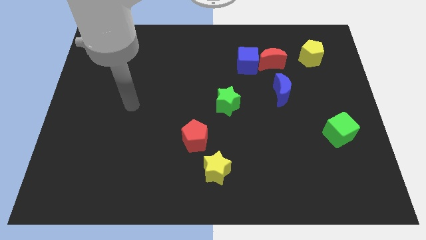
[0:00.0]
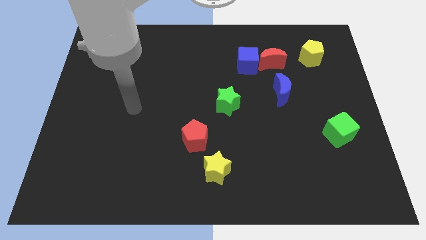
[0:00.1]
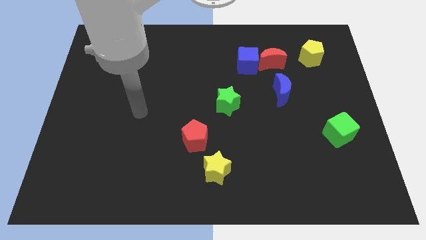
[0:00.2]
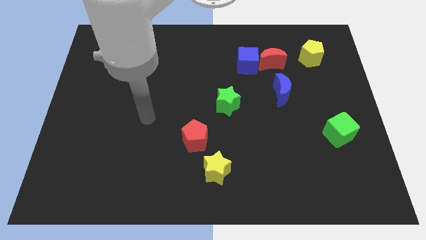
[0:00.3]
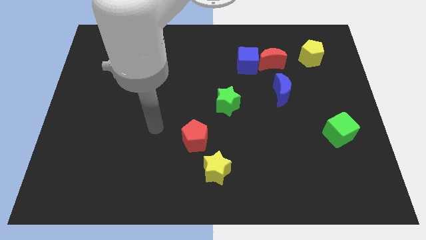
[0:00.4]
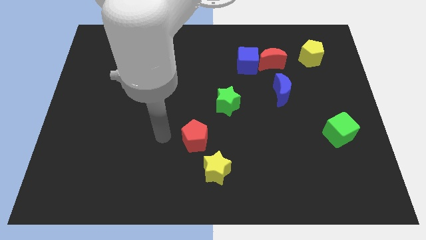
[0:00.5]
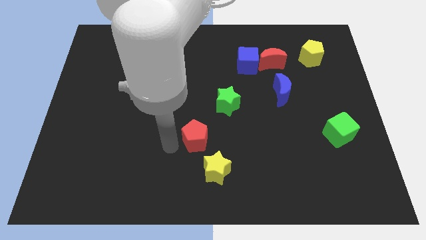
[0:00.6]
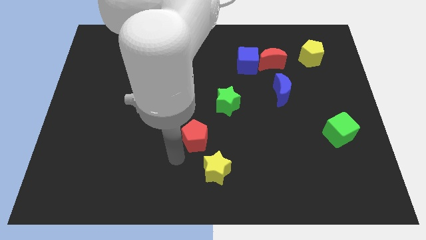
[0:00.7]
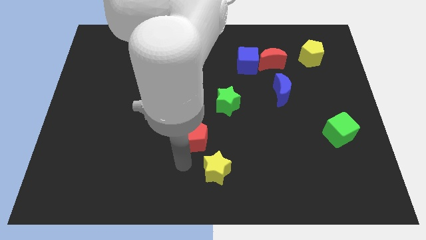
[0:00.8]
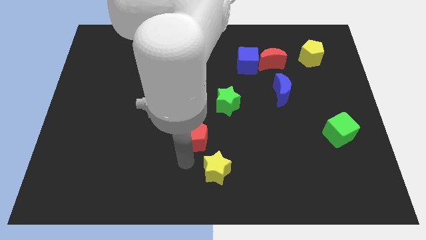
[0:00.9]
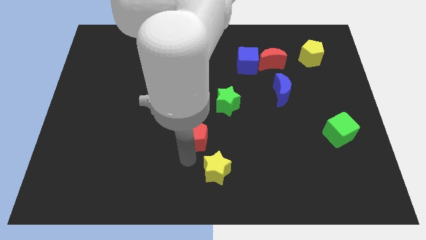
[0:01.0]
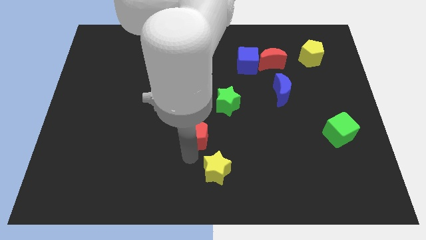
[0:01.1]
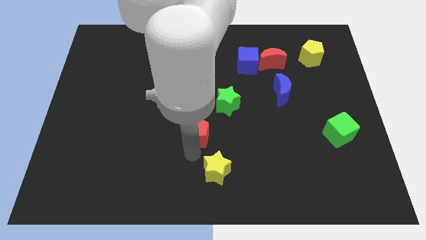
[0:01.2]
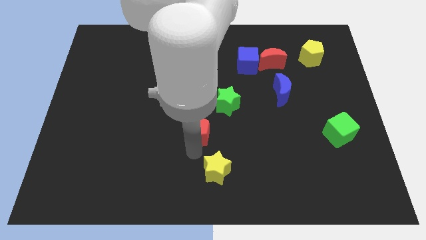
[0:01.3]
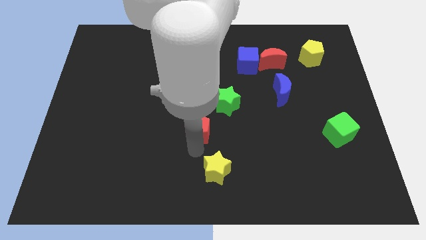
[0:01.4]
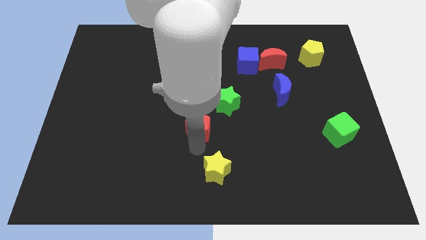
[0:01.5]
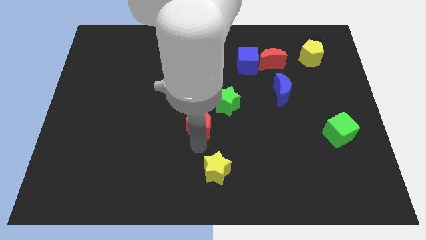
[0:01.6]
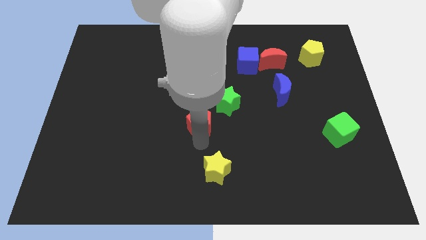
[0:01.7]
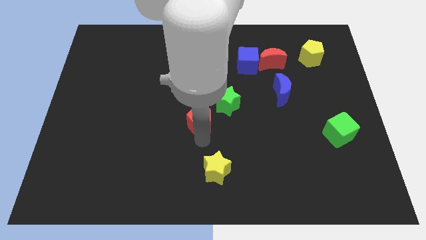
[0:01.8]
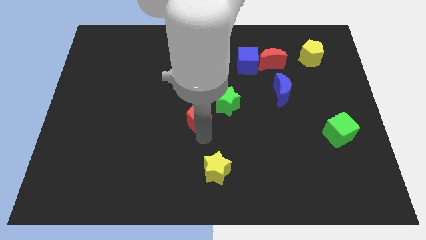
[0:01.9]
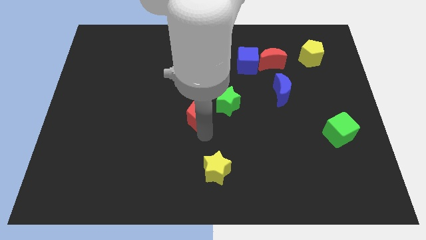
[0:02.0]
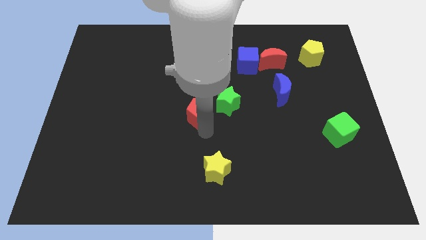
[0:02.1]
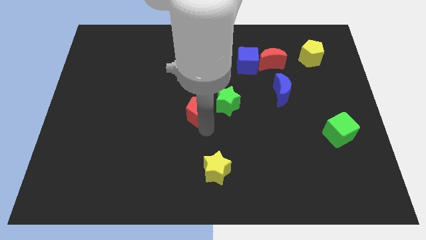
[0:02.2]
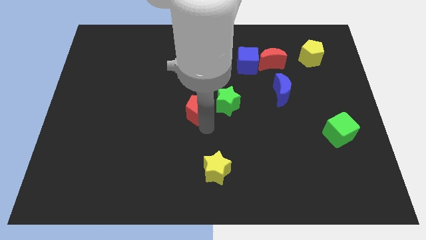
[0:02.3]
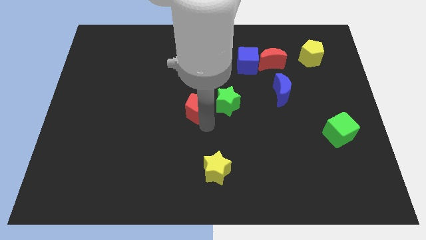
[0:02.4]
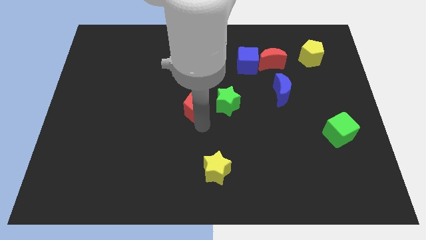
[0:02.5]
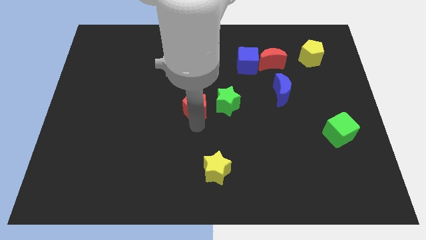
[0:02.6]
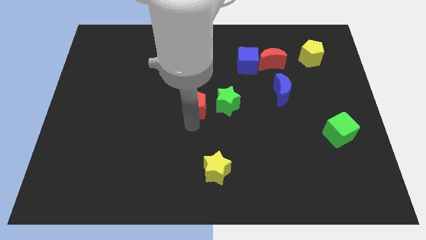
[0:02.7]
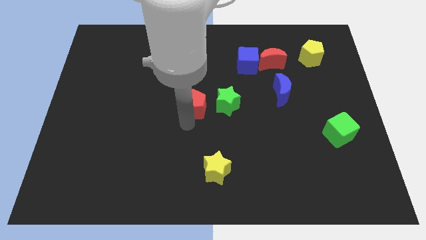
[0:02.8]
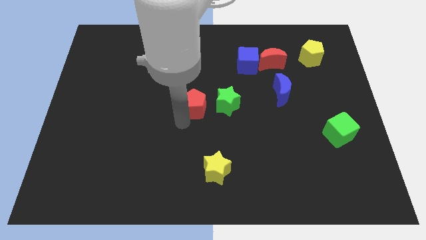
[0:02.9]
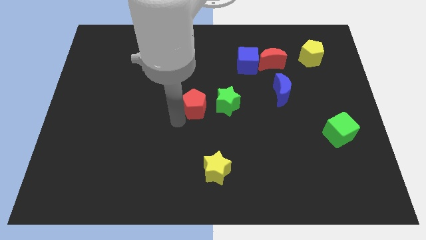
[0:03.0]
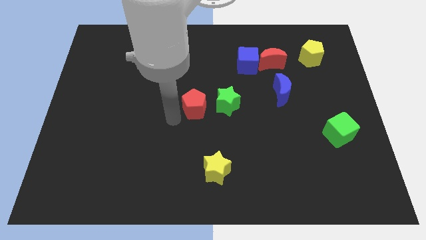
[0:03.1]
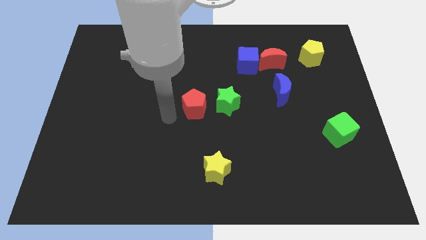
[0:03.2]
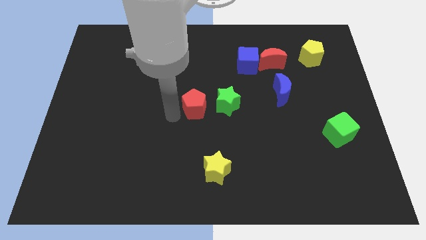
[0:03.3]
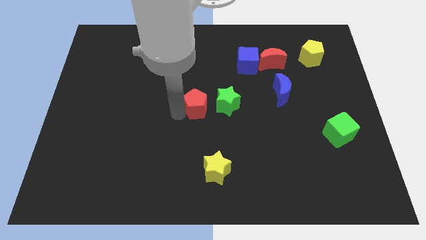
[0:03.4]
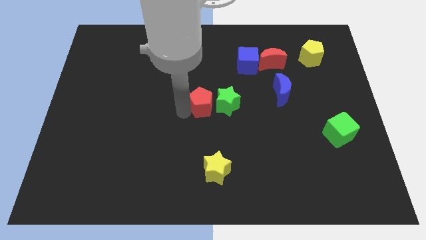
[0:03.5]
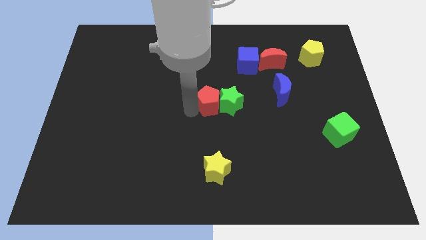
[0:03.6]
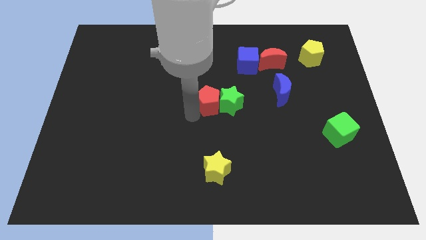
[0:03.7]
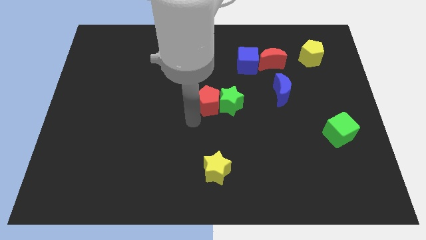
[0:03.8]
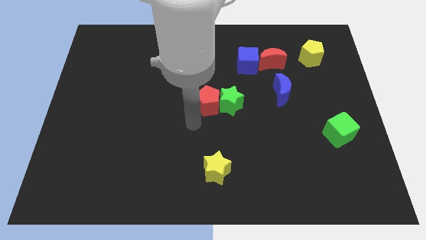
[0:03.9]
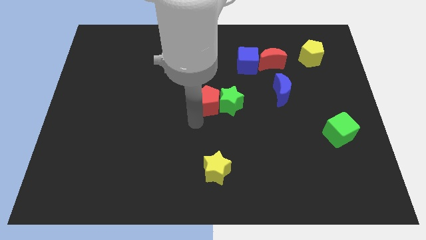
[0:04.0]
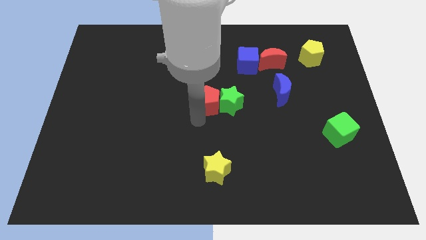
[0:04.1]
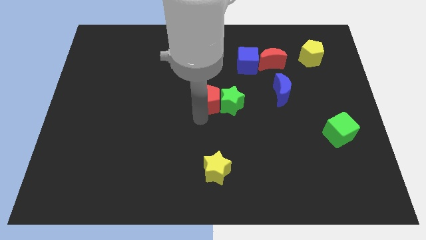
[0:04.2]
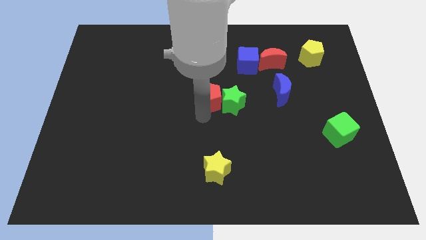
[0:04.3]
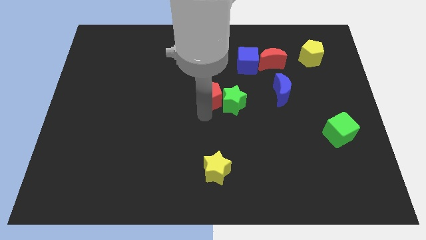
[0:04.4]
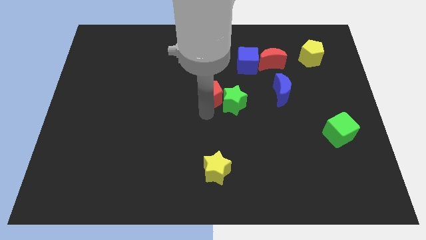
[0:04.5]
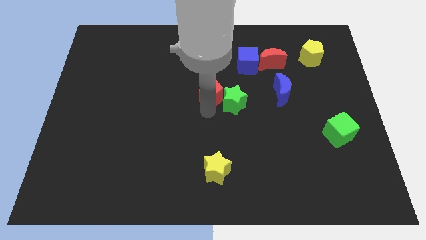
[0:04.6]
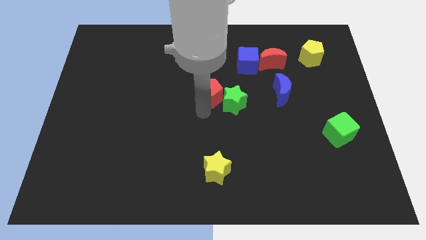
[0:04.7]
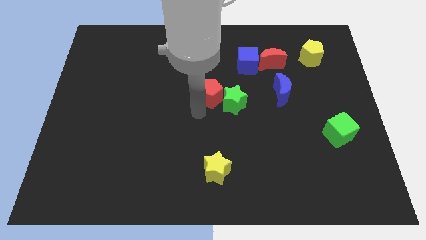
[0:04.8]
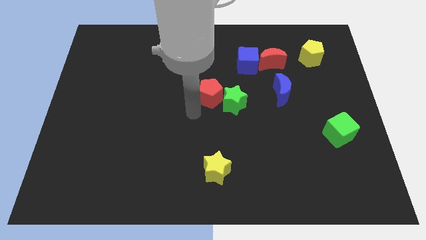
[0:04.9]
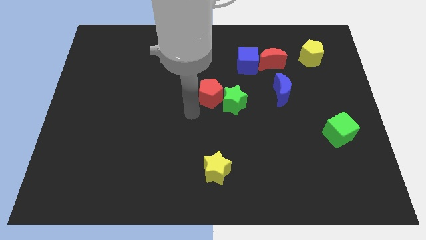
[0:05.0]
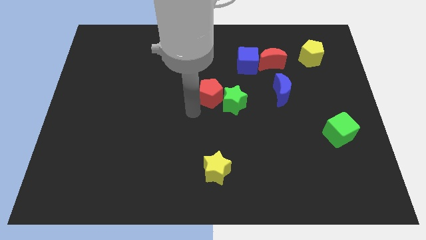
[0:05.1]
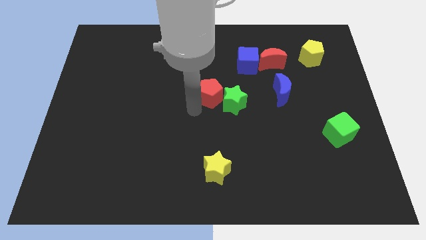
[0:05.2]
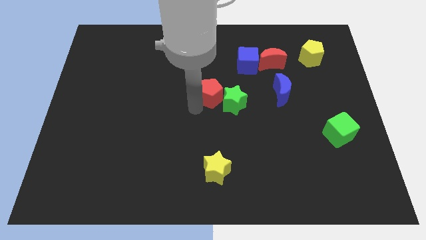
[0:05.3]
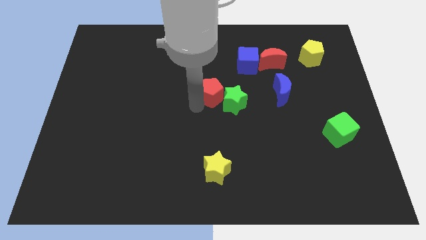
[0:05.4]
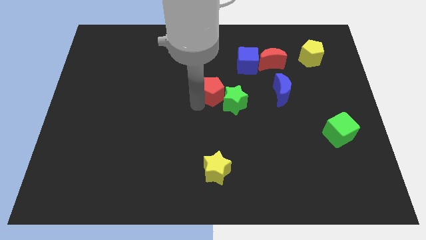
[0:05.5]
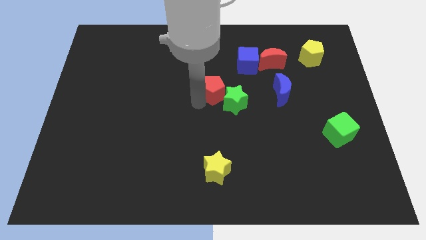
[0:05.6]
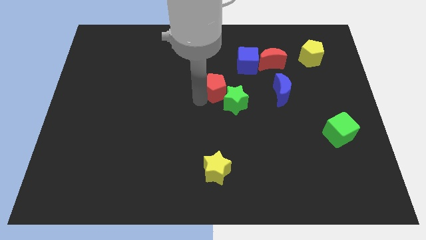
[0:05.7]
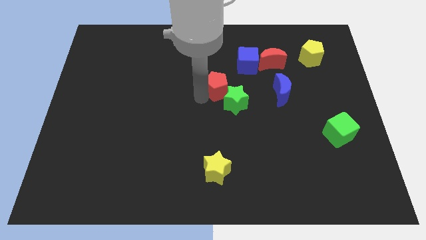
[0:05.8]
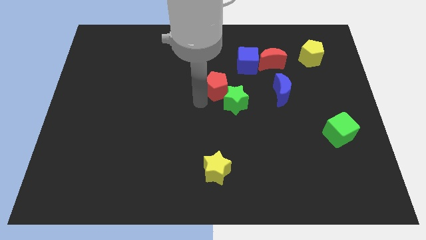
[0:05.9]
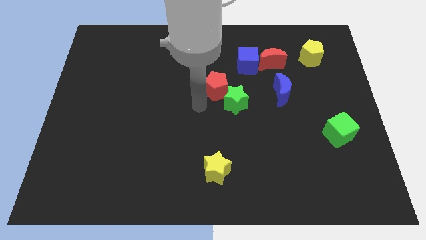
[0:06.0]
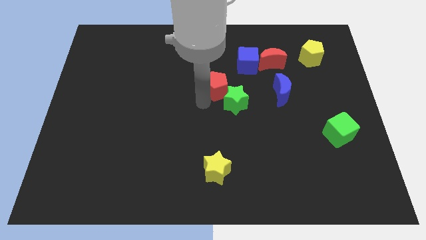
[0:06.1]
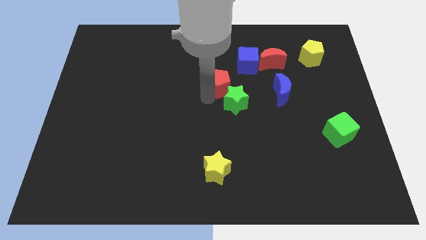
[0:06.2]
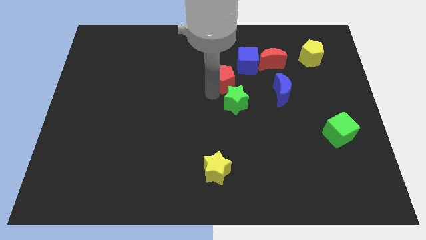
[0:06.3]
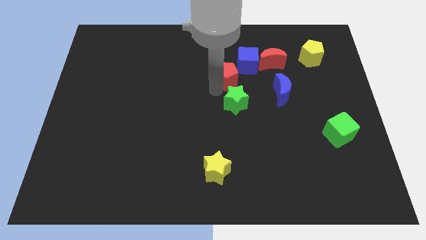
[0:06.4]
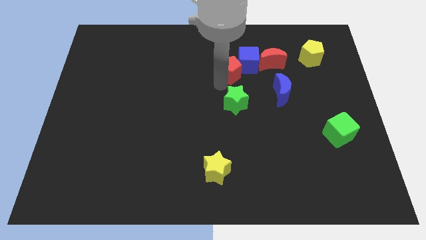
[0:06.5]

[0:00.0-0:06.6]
put the red pentagon to the blue cube

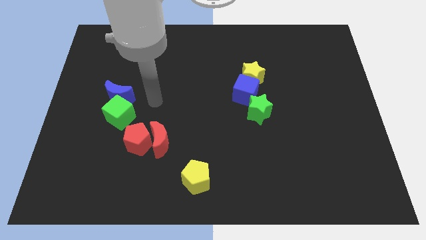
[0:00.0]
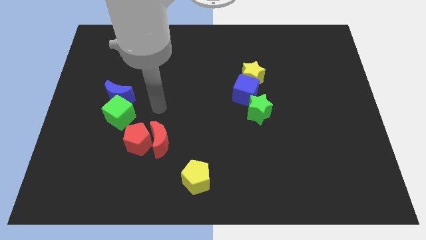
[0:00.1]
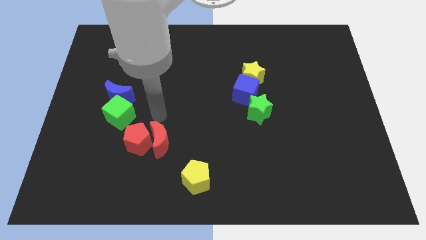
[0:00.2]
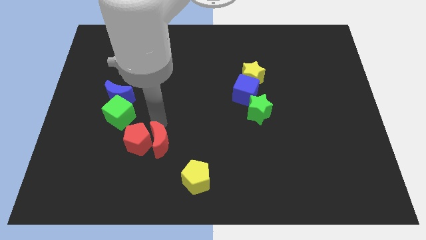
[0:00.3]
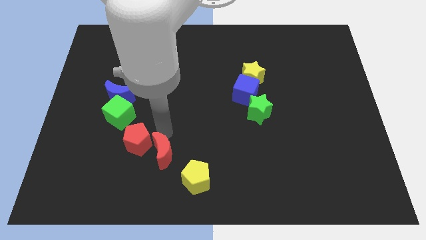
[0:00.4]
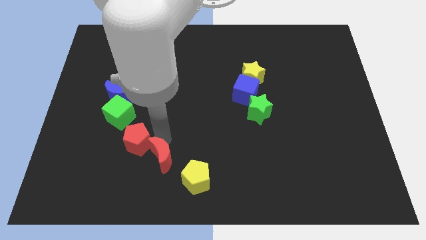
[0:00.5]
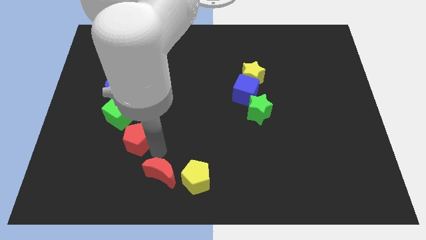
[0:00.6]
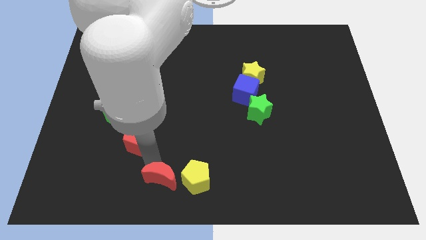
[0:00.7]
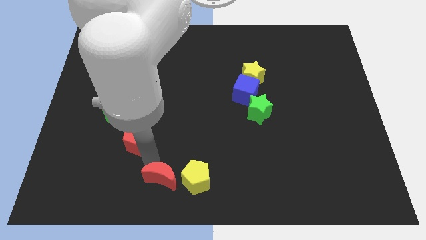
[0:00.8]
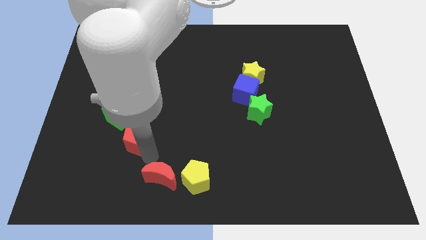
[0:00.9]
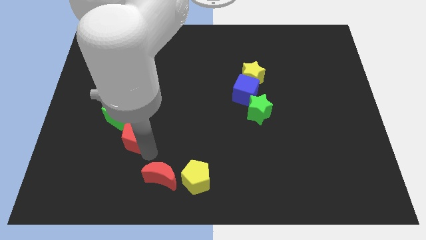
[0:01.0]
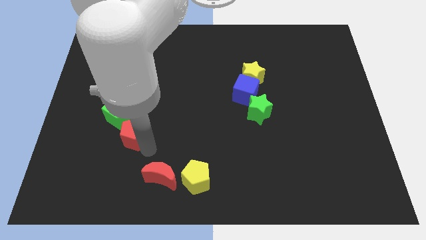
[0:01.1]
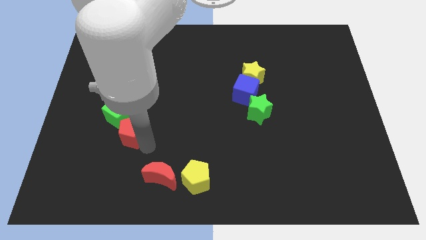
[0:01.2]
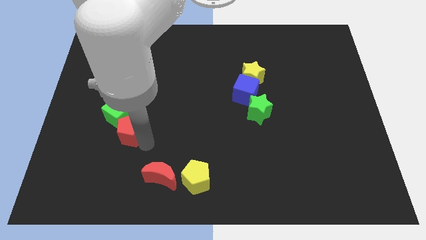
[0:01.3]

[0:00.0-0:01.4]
slide the red pentagon to the green cube
